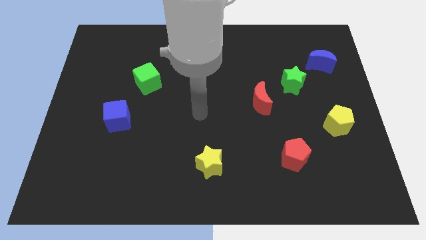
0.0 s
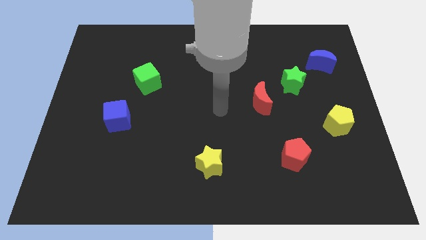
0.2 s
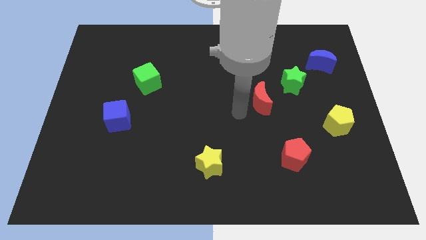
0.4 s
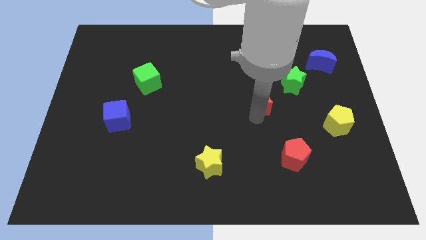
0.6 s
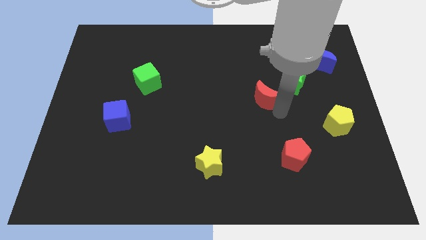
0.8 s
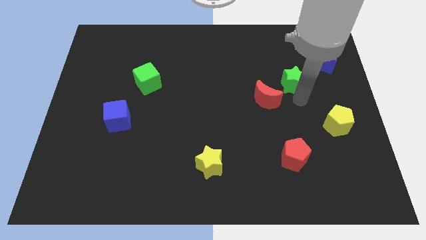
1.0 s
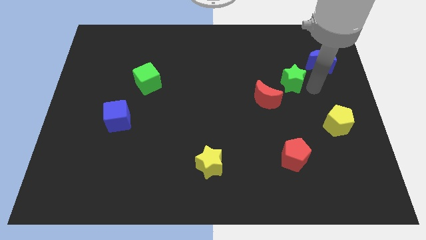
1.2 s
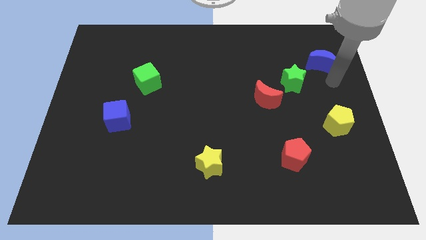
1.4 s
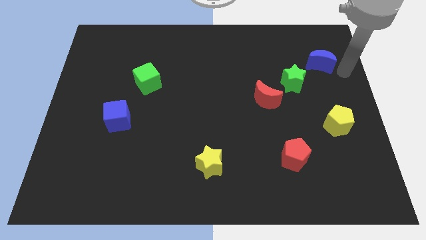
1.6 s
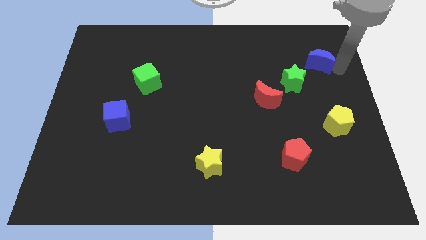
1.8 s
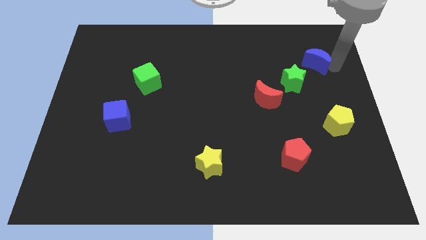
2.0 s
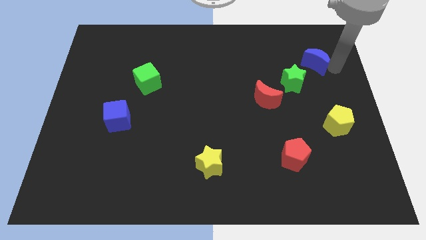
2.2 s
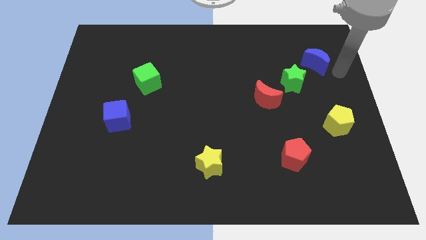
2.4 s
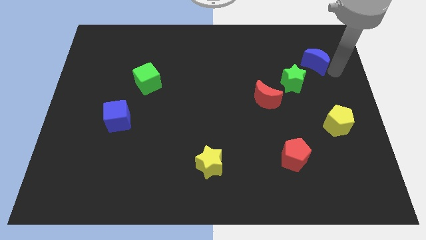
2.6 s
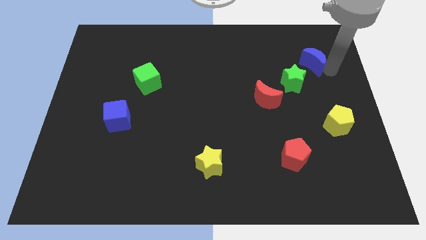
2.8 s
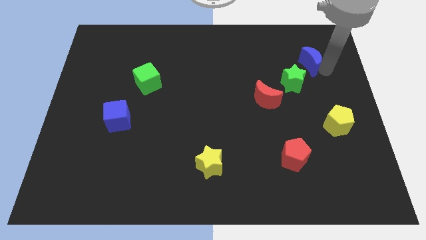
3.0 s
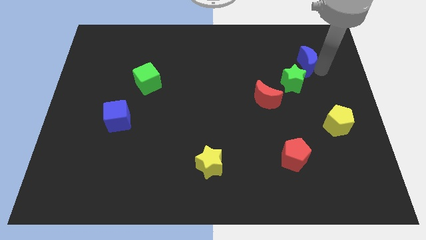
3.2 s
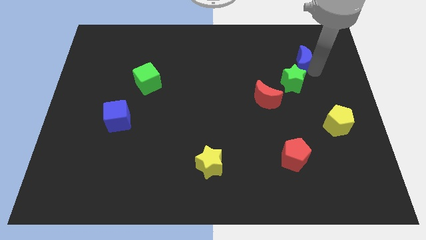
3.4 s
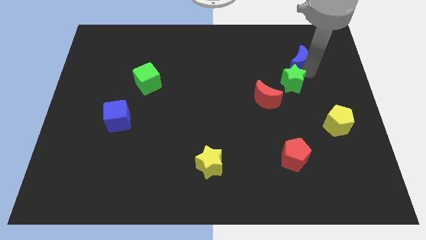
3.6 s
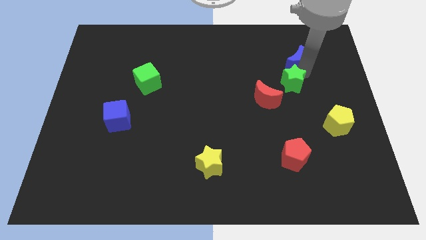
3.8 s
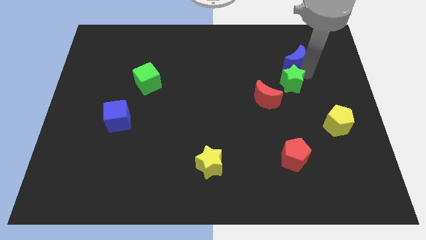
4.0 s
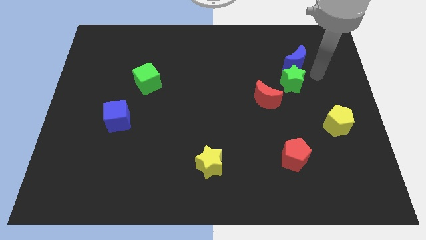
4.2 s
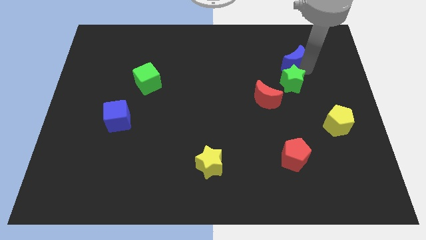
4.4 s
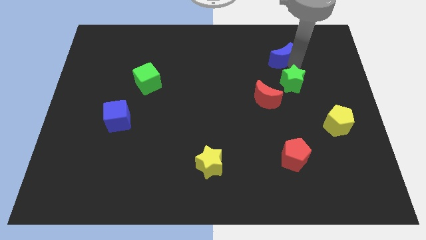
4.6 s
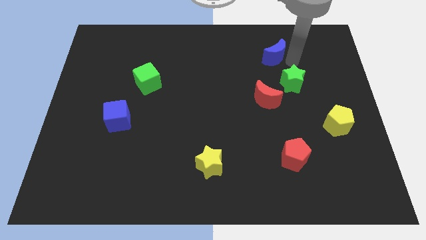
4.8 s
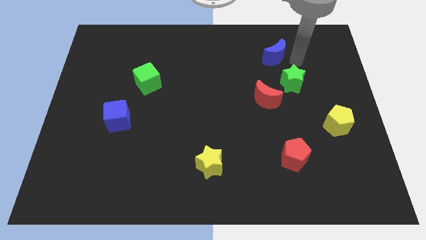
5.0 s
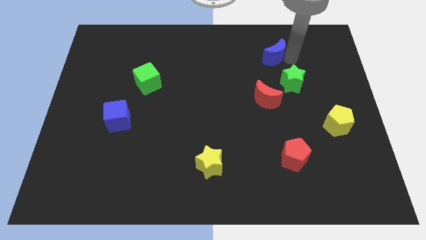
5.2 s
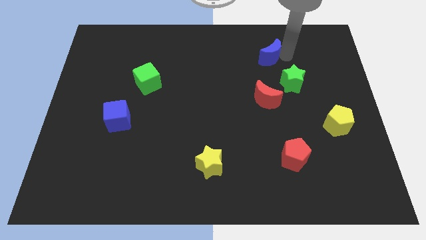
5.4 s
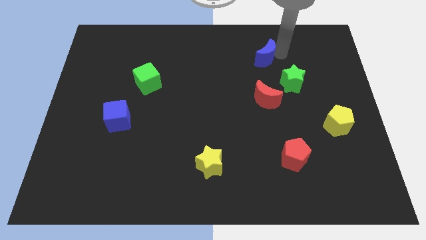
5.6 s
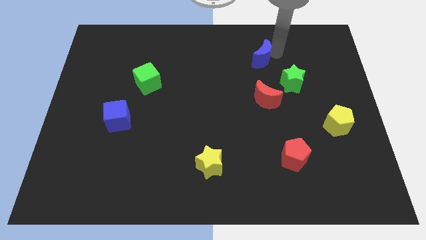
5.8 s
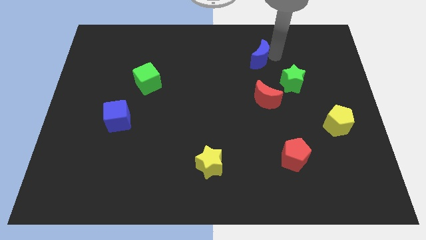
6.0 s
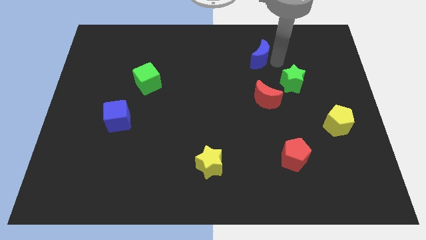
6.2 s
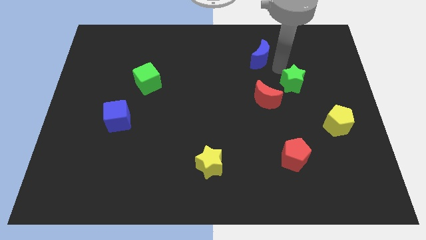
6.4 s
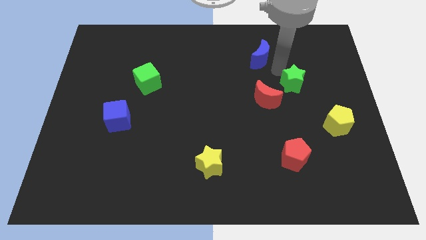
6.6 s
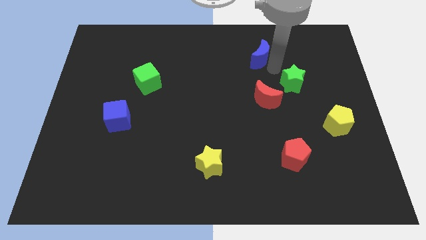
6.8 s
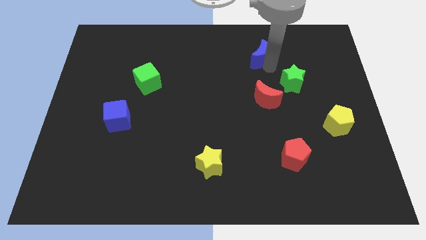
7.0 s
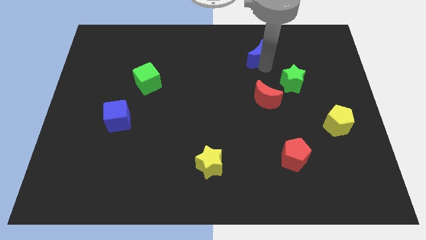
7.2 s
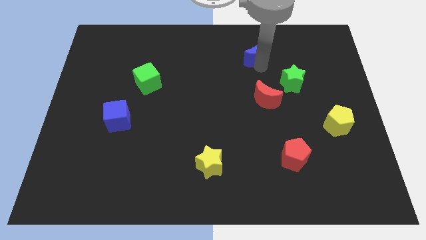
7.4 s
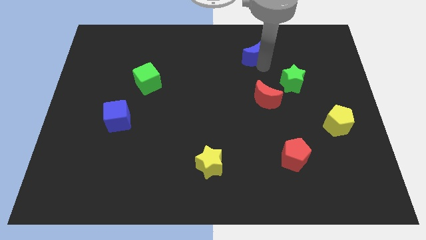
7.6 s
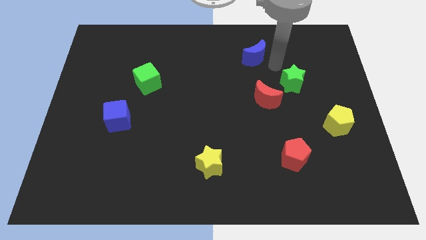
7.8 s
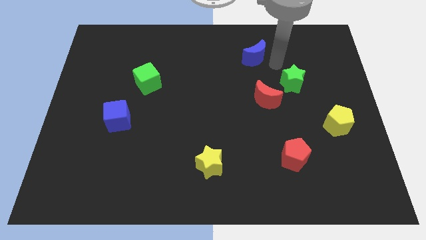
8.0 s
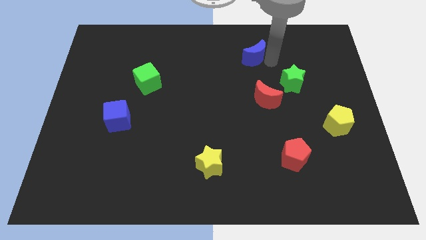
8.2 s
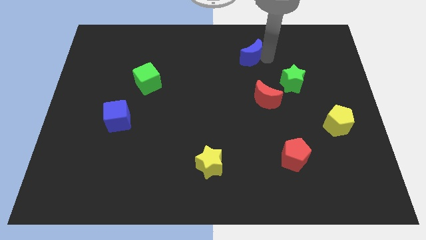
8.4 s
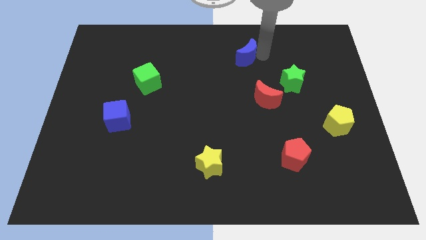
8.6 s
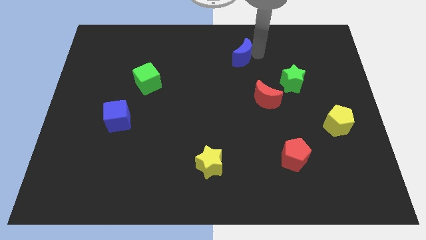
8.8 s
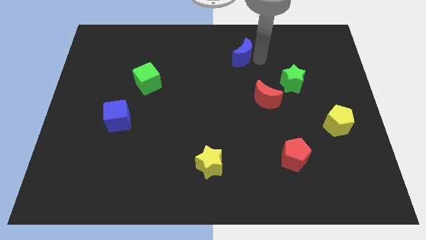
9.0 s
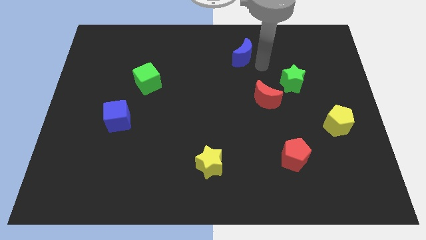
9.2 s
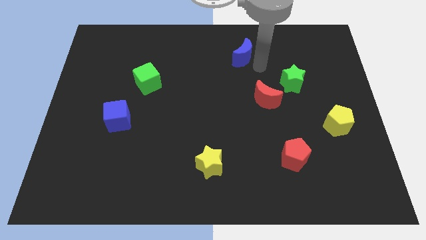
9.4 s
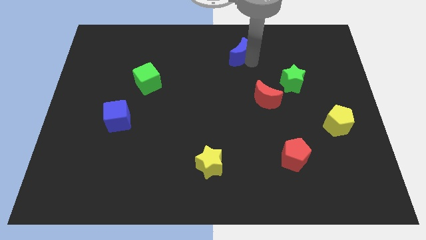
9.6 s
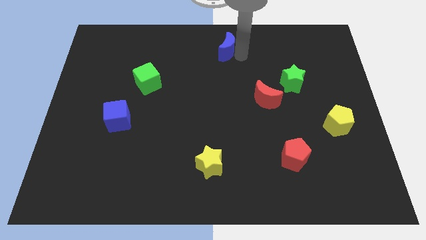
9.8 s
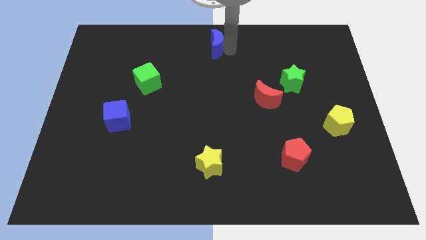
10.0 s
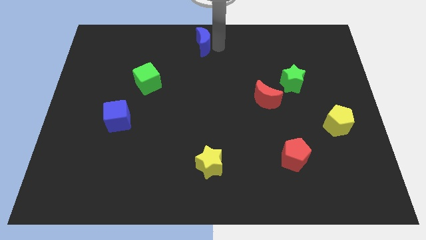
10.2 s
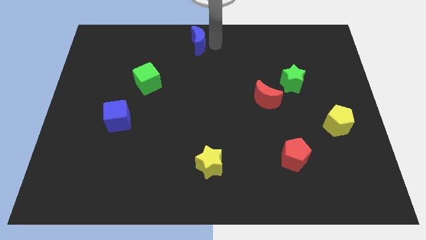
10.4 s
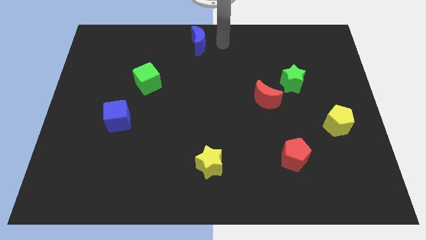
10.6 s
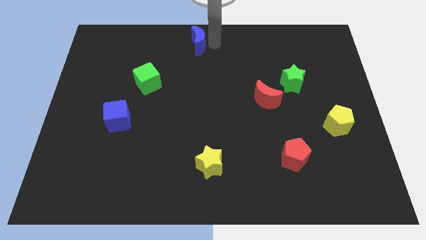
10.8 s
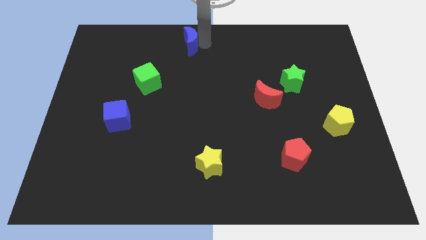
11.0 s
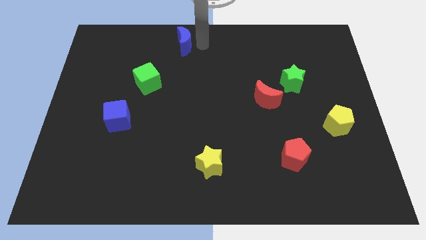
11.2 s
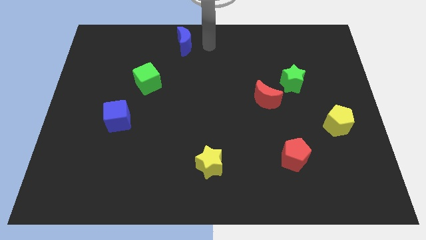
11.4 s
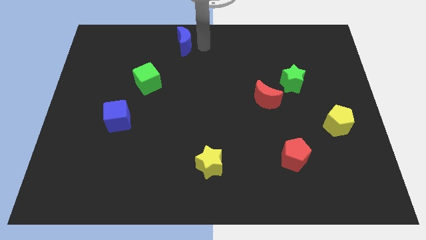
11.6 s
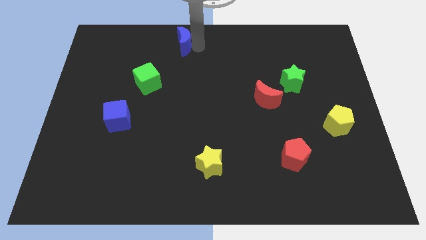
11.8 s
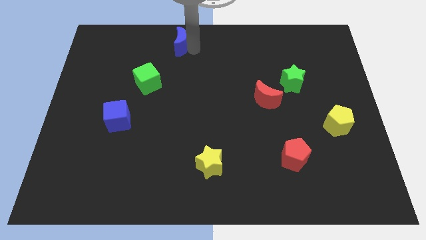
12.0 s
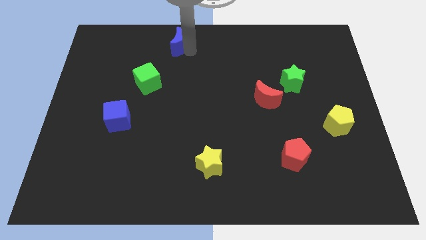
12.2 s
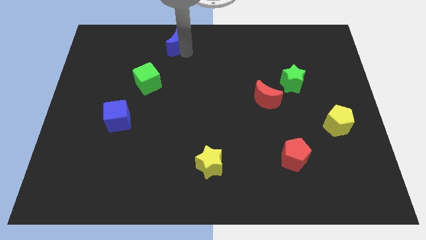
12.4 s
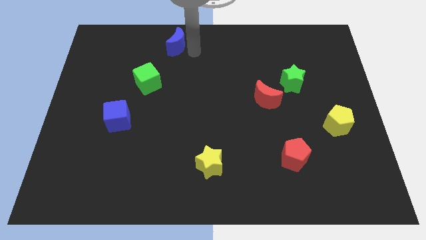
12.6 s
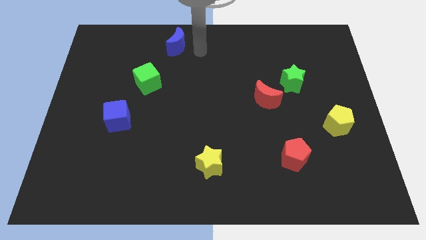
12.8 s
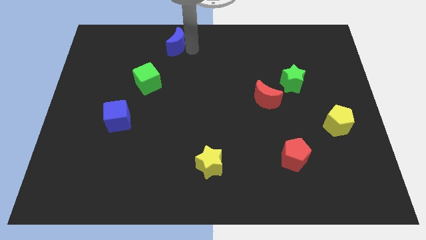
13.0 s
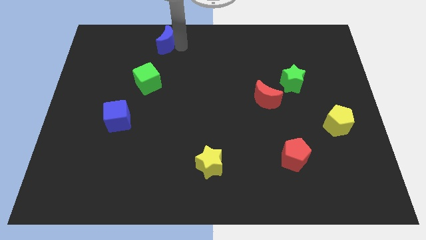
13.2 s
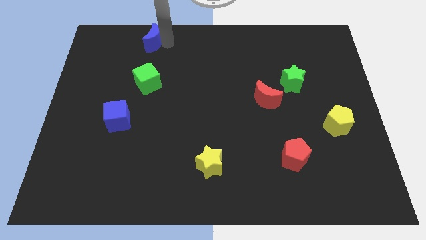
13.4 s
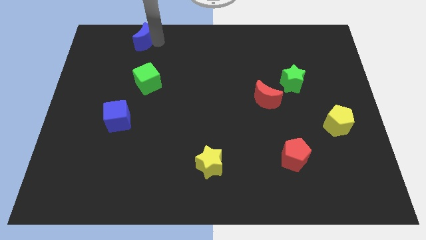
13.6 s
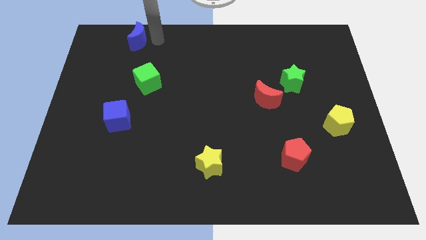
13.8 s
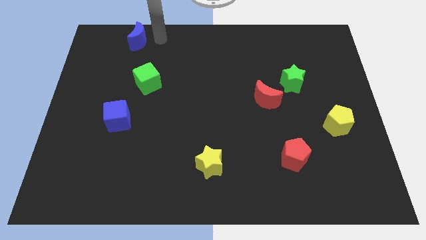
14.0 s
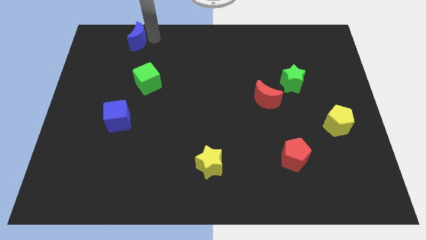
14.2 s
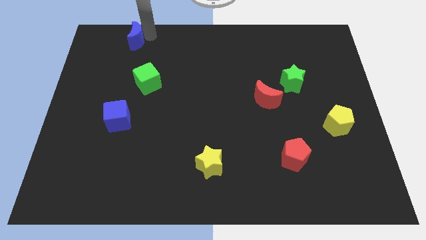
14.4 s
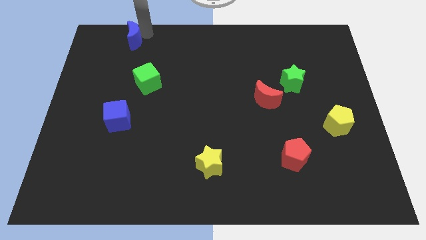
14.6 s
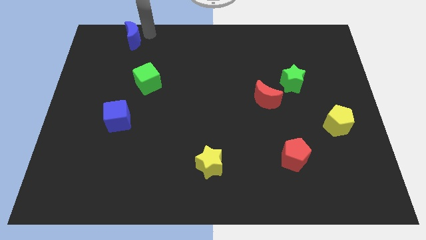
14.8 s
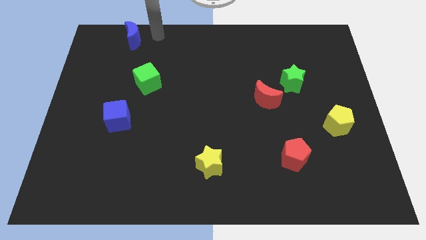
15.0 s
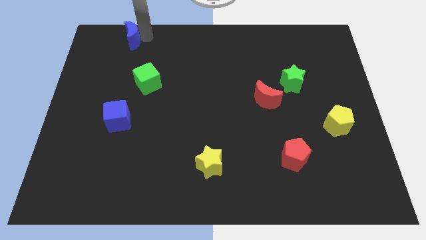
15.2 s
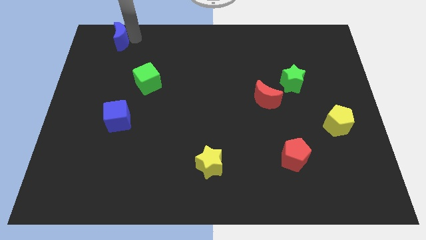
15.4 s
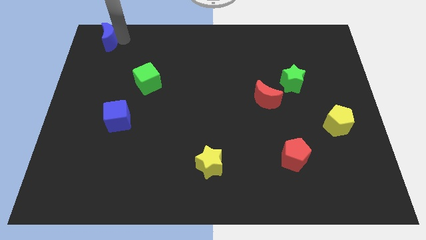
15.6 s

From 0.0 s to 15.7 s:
move the blue moon to the top left
